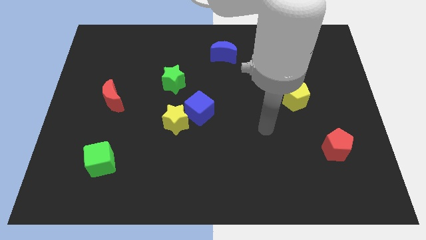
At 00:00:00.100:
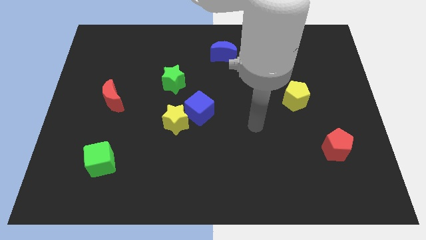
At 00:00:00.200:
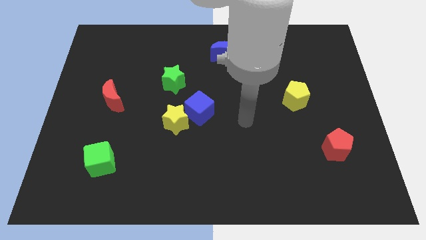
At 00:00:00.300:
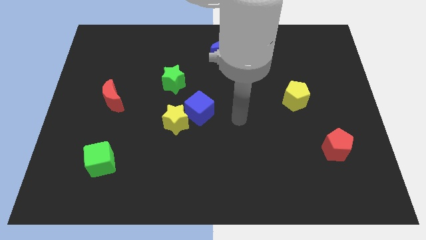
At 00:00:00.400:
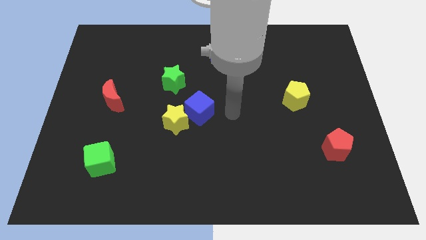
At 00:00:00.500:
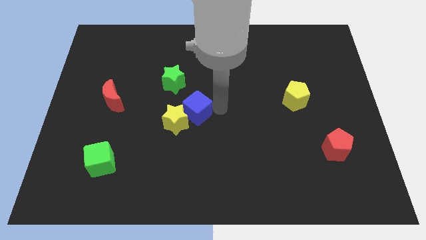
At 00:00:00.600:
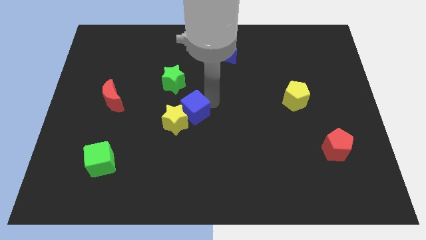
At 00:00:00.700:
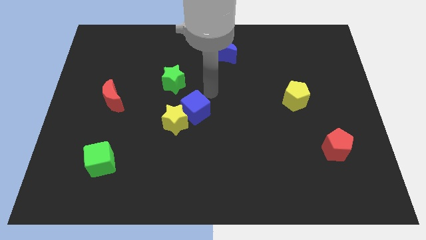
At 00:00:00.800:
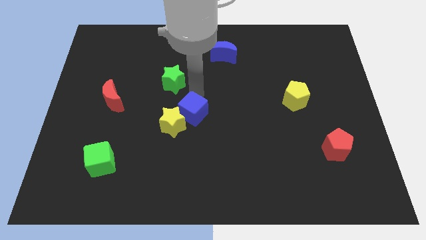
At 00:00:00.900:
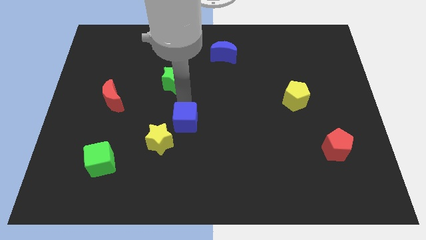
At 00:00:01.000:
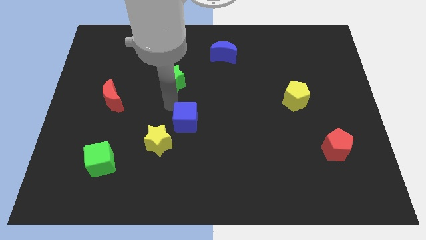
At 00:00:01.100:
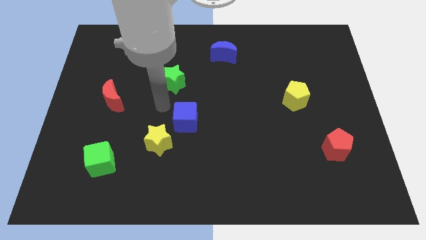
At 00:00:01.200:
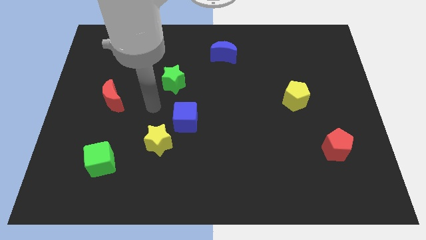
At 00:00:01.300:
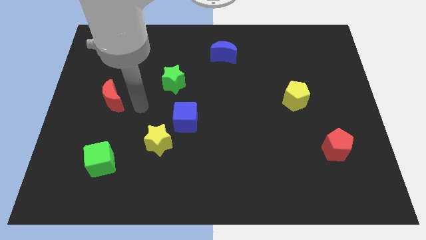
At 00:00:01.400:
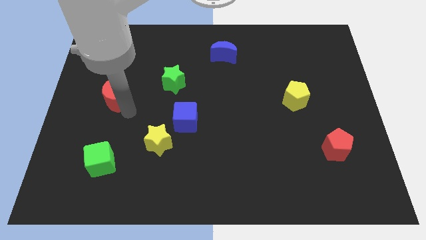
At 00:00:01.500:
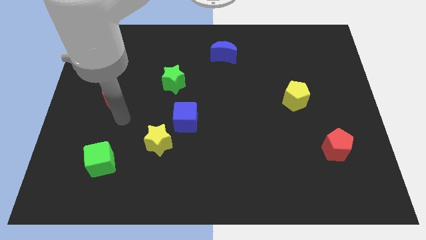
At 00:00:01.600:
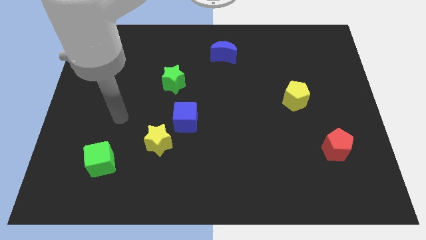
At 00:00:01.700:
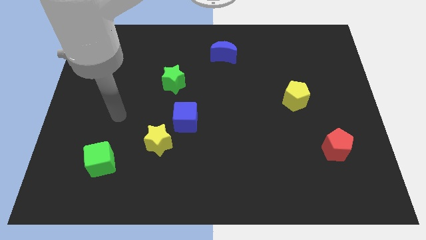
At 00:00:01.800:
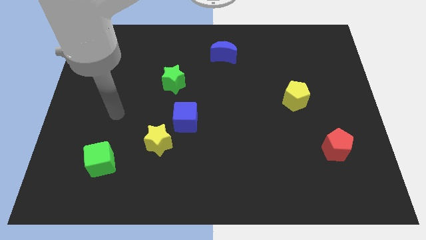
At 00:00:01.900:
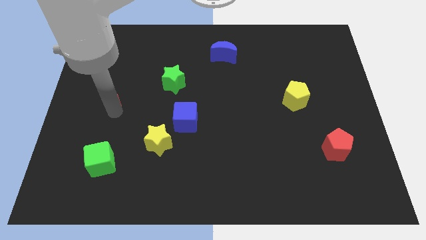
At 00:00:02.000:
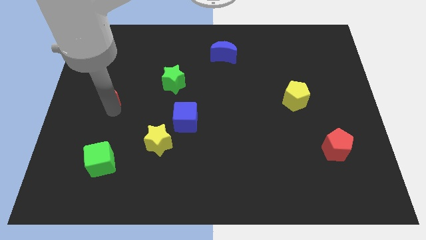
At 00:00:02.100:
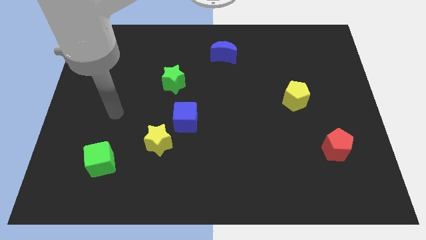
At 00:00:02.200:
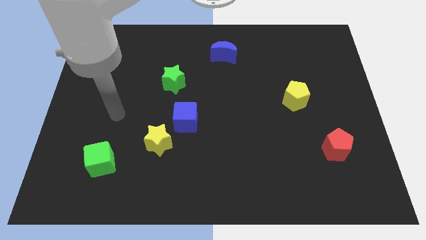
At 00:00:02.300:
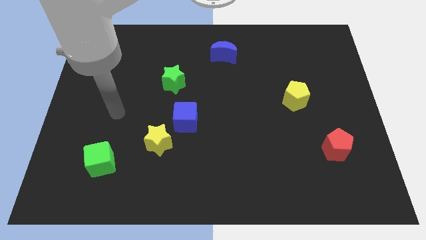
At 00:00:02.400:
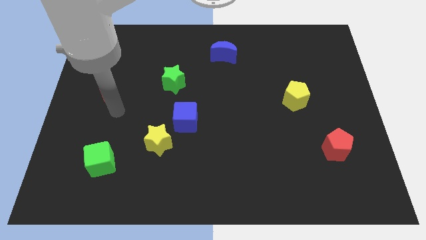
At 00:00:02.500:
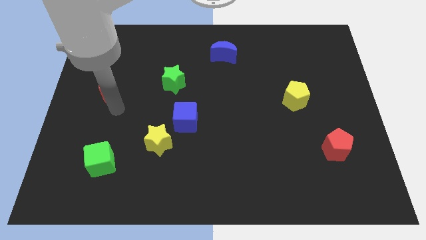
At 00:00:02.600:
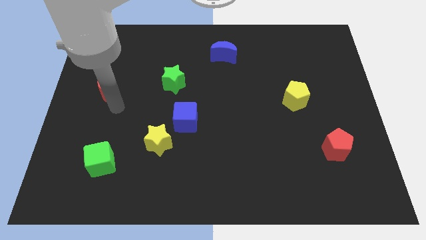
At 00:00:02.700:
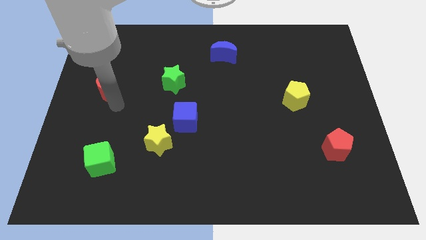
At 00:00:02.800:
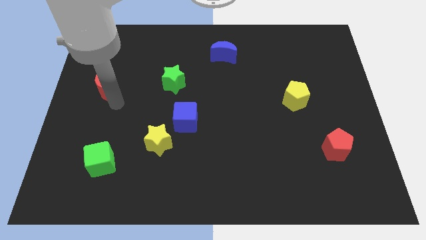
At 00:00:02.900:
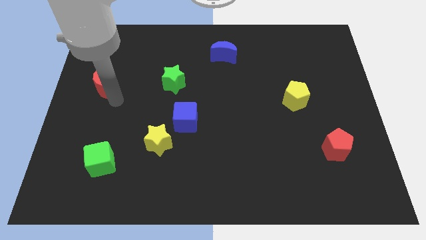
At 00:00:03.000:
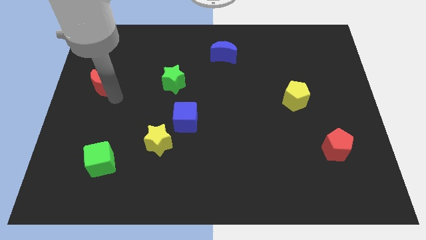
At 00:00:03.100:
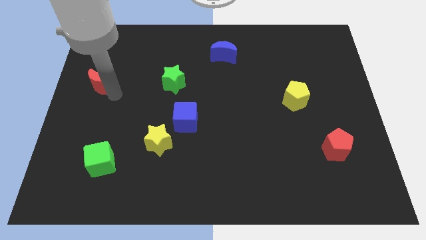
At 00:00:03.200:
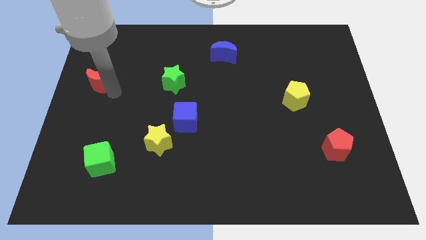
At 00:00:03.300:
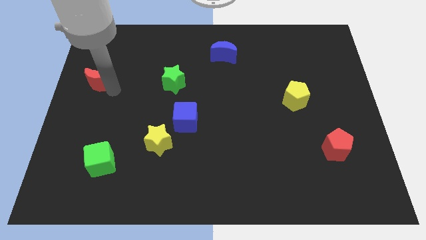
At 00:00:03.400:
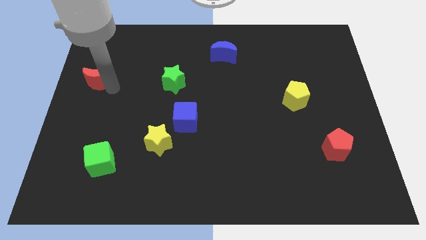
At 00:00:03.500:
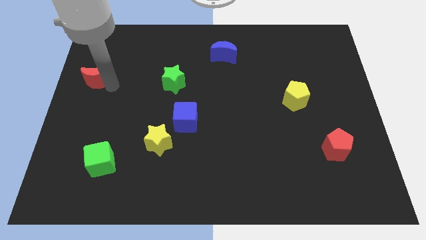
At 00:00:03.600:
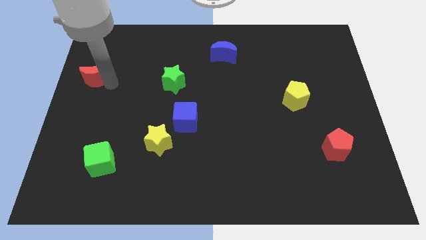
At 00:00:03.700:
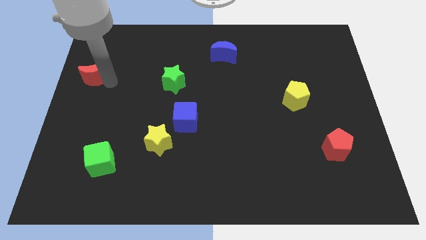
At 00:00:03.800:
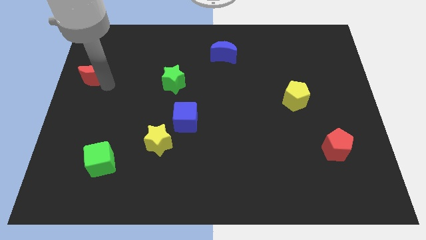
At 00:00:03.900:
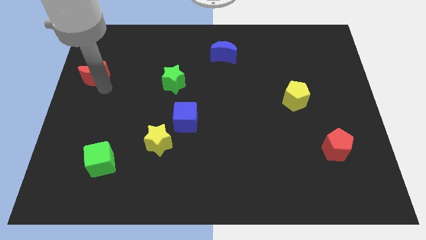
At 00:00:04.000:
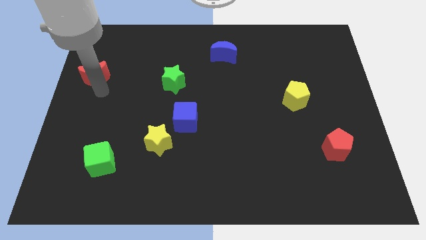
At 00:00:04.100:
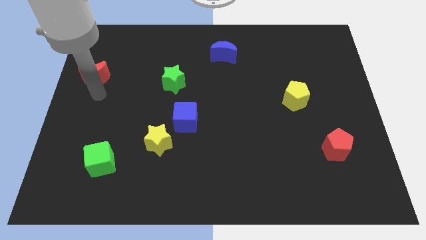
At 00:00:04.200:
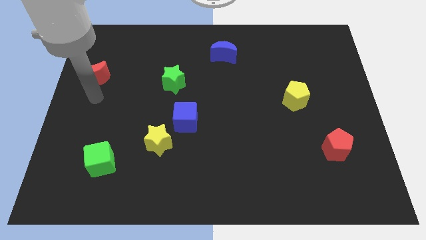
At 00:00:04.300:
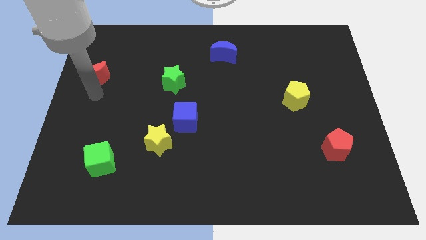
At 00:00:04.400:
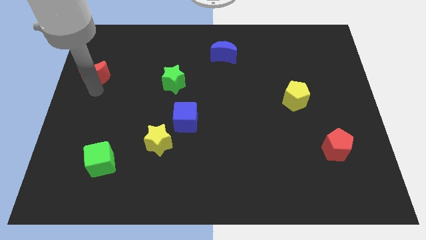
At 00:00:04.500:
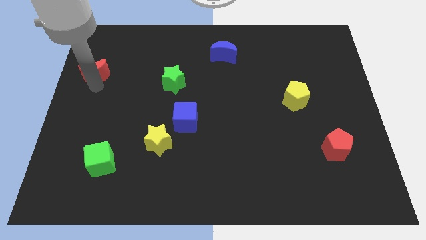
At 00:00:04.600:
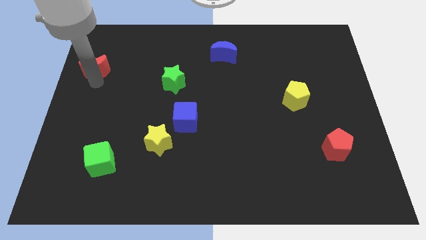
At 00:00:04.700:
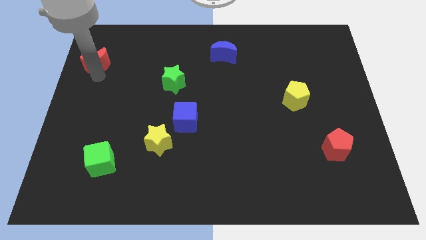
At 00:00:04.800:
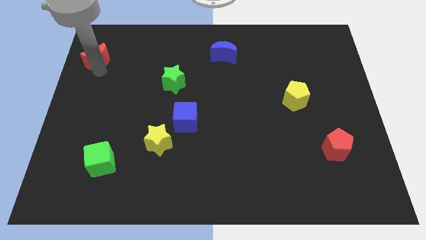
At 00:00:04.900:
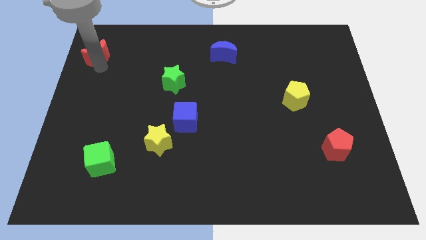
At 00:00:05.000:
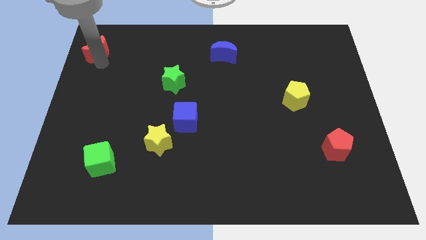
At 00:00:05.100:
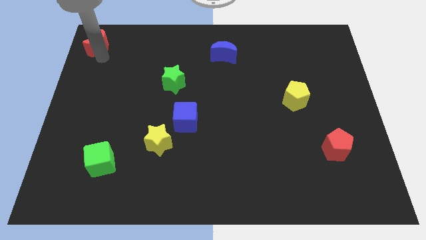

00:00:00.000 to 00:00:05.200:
push the red moon to the top left corner

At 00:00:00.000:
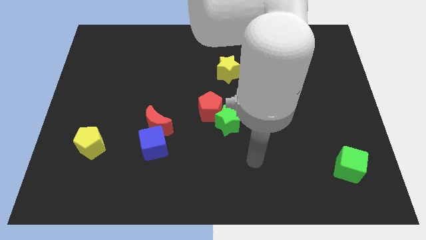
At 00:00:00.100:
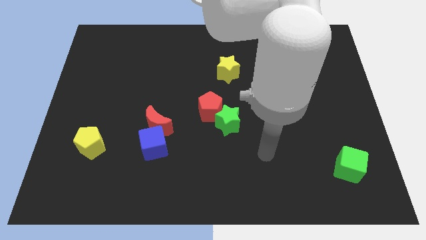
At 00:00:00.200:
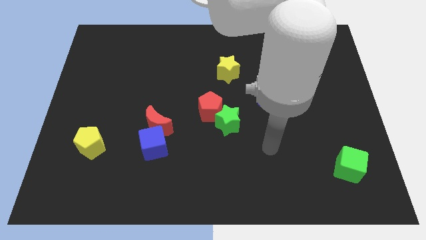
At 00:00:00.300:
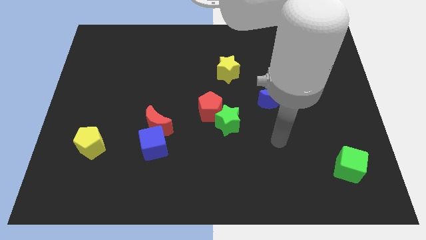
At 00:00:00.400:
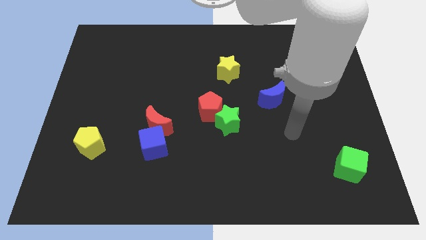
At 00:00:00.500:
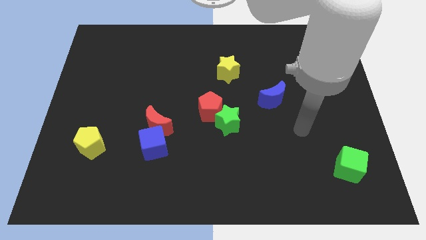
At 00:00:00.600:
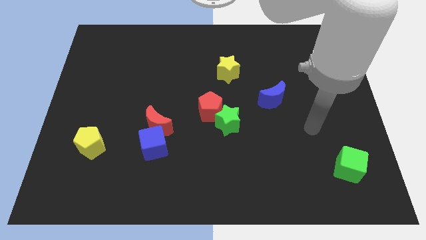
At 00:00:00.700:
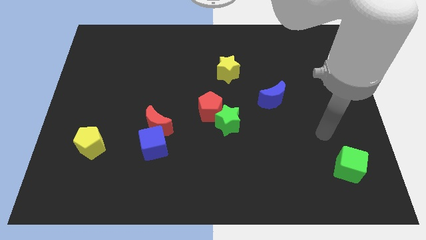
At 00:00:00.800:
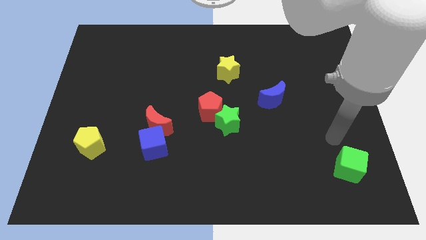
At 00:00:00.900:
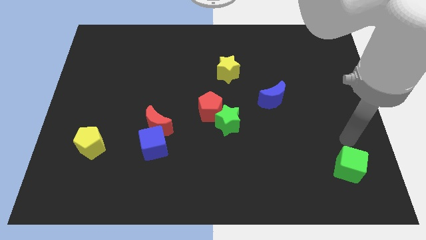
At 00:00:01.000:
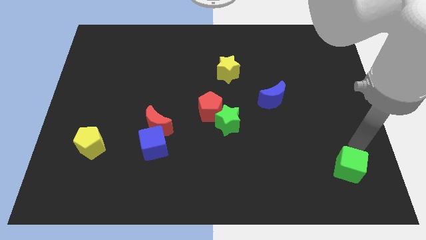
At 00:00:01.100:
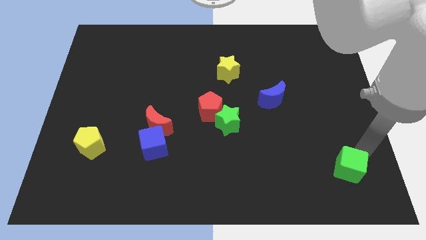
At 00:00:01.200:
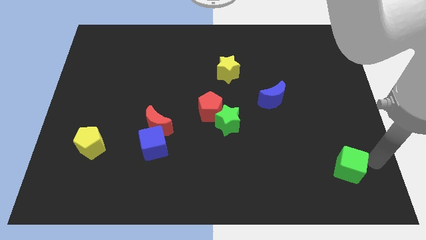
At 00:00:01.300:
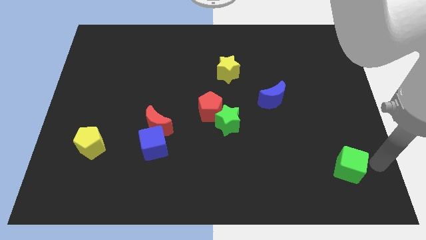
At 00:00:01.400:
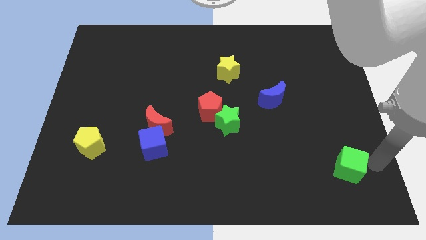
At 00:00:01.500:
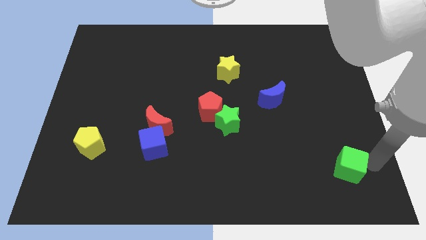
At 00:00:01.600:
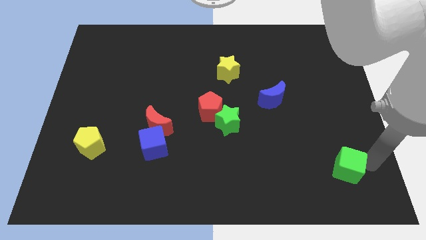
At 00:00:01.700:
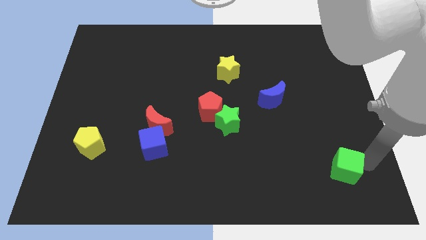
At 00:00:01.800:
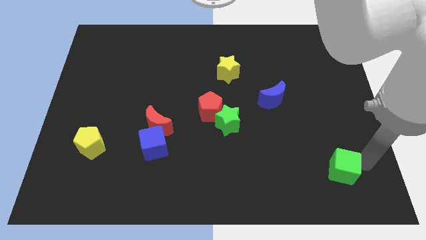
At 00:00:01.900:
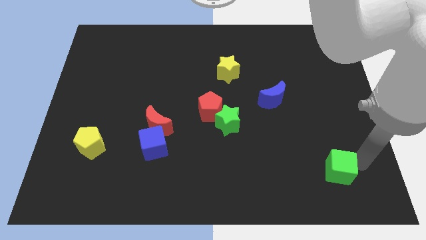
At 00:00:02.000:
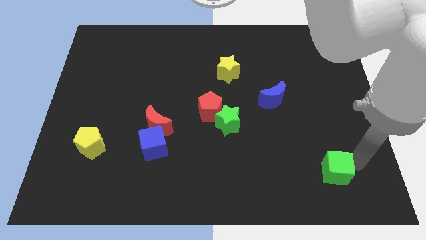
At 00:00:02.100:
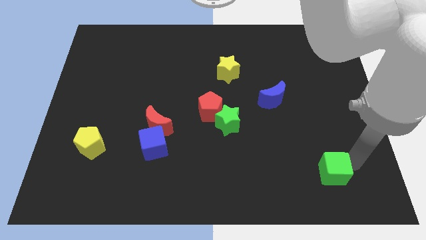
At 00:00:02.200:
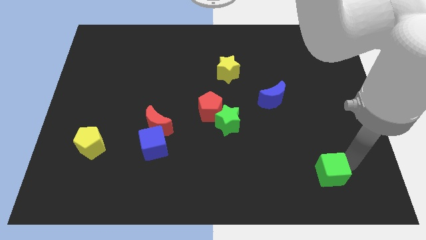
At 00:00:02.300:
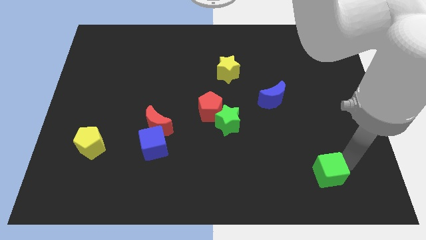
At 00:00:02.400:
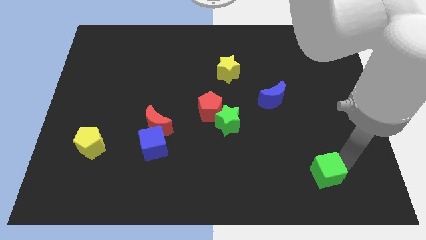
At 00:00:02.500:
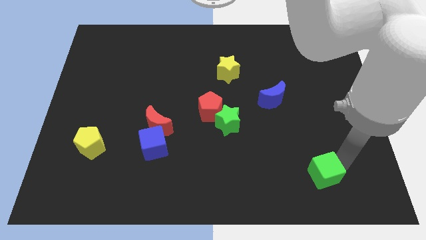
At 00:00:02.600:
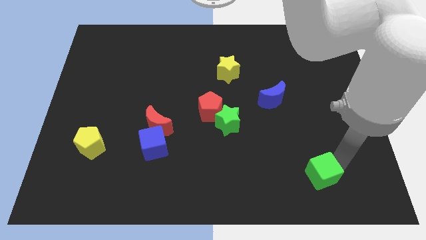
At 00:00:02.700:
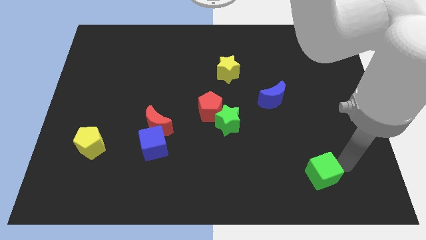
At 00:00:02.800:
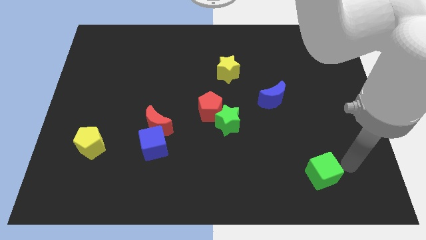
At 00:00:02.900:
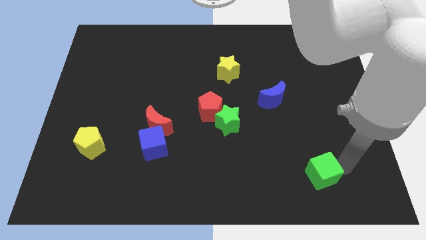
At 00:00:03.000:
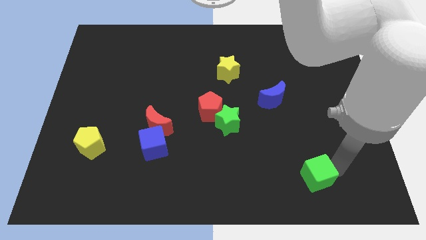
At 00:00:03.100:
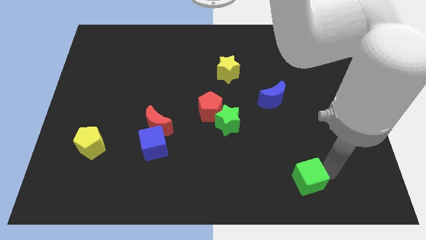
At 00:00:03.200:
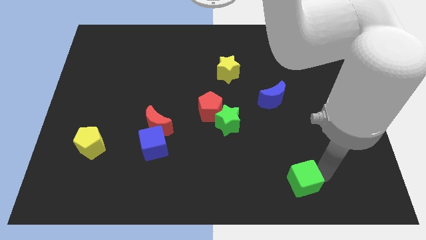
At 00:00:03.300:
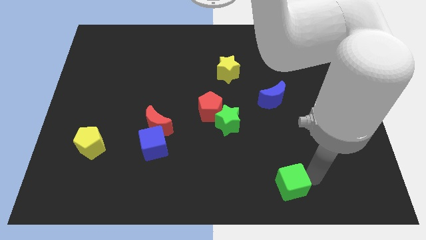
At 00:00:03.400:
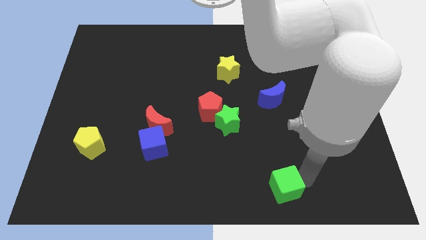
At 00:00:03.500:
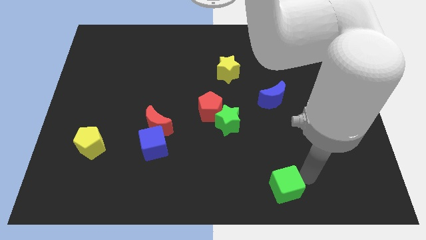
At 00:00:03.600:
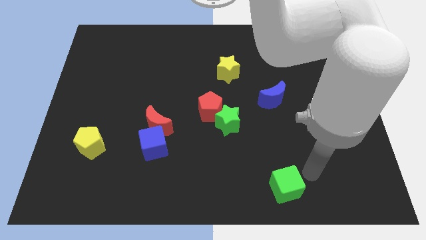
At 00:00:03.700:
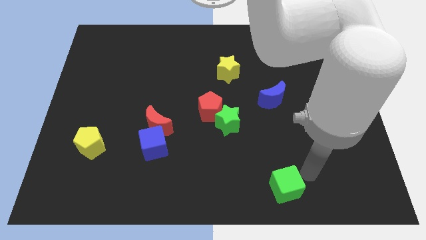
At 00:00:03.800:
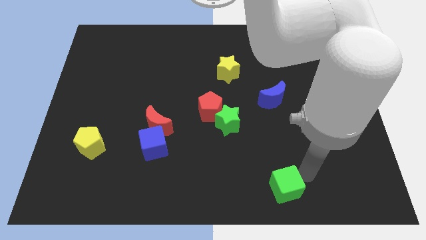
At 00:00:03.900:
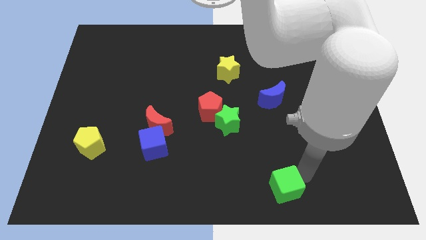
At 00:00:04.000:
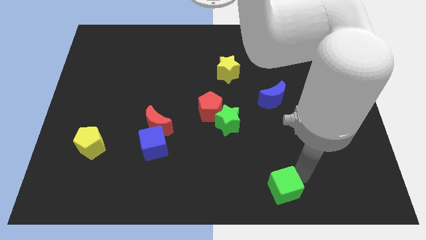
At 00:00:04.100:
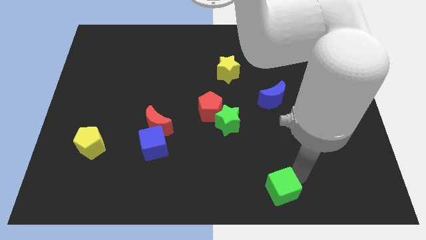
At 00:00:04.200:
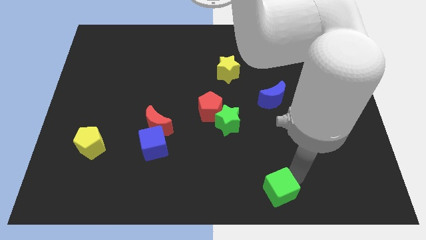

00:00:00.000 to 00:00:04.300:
put the green cube to the bottom
